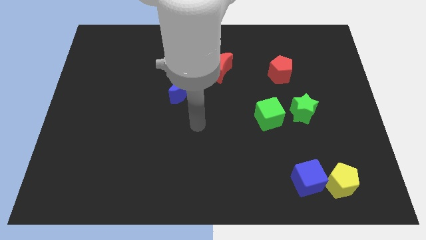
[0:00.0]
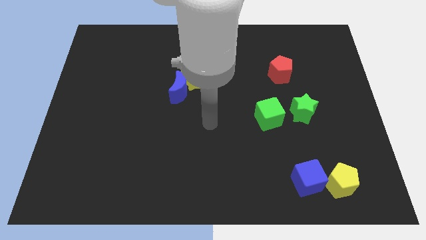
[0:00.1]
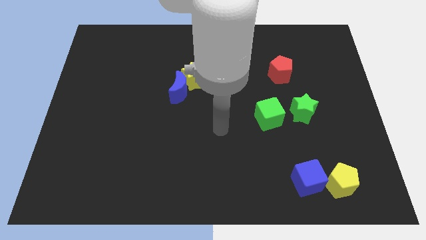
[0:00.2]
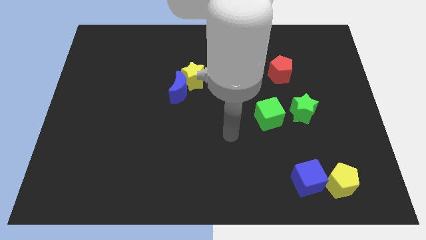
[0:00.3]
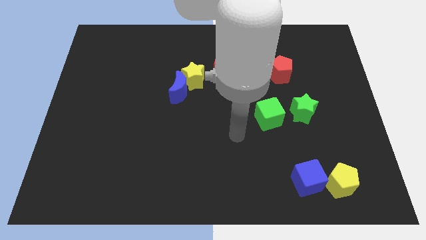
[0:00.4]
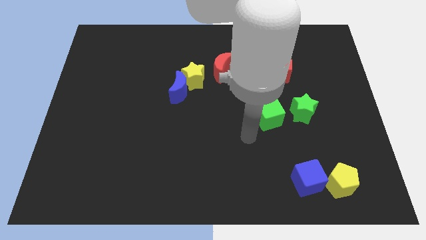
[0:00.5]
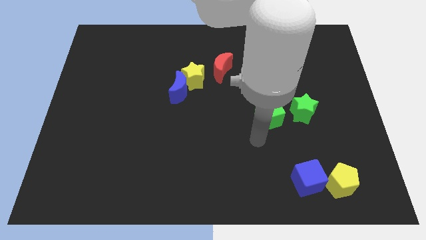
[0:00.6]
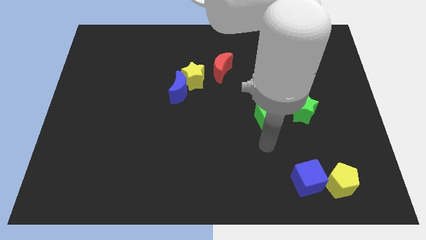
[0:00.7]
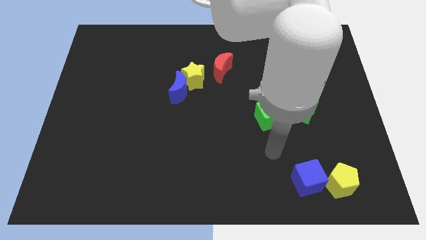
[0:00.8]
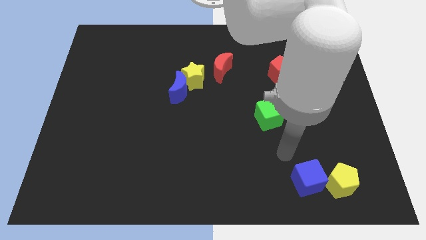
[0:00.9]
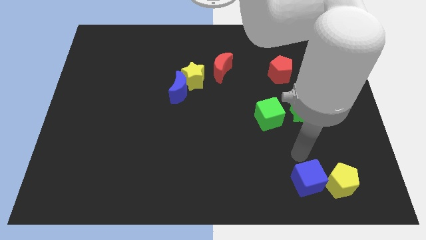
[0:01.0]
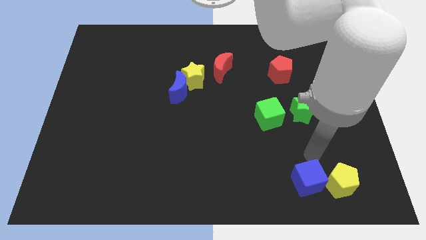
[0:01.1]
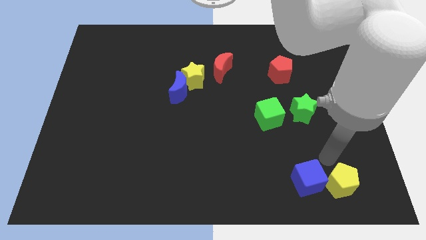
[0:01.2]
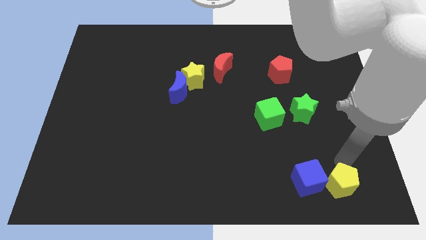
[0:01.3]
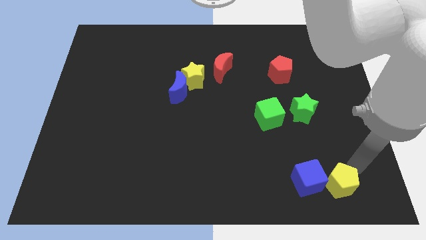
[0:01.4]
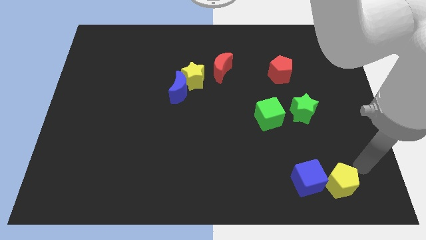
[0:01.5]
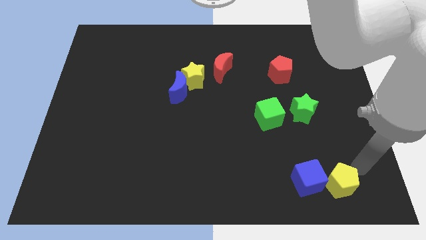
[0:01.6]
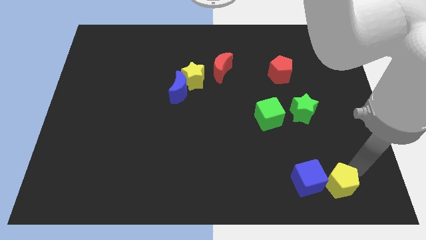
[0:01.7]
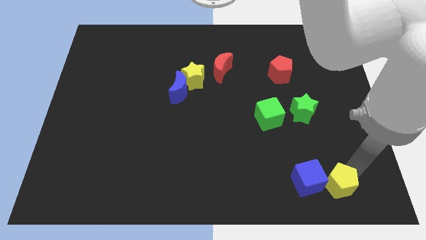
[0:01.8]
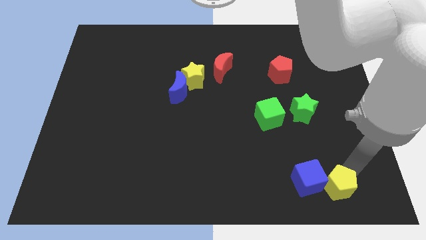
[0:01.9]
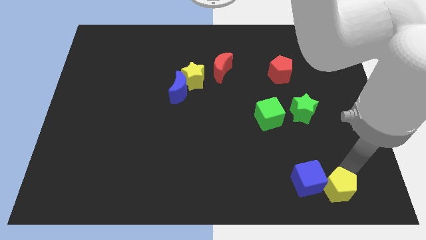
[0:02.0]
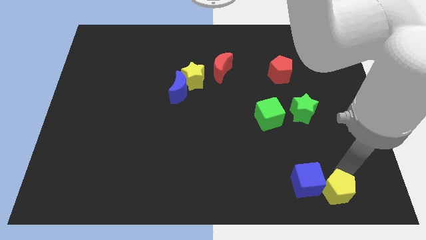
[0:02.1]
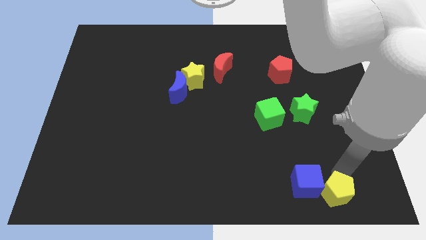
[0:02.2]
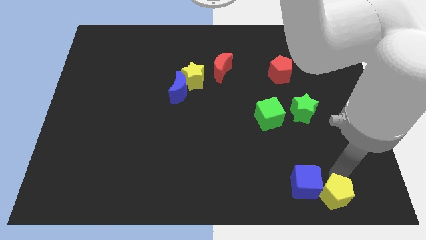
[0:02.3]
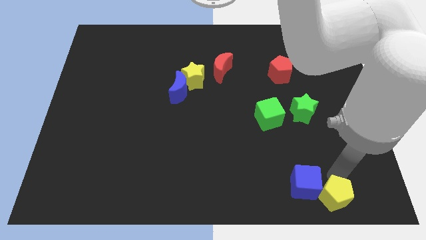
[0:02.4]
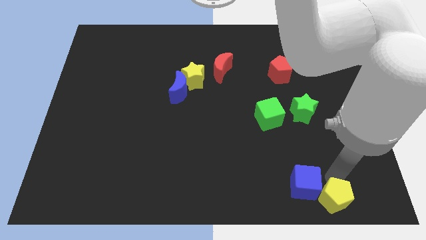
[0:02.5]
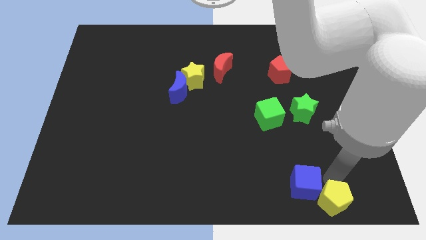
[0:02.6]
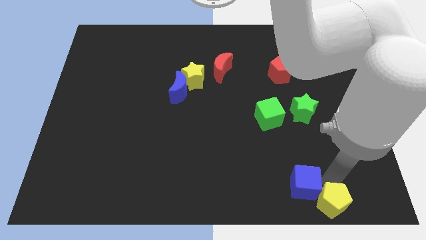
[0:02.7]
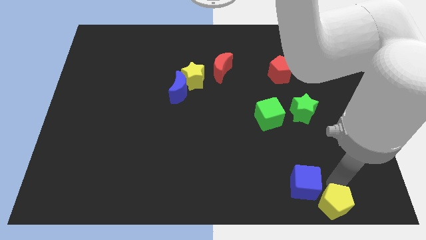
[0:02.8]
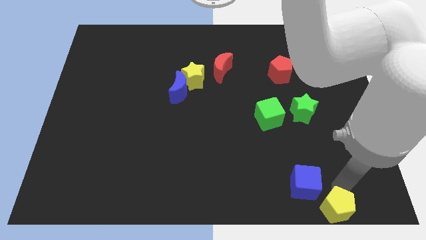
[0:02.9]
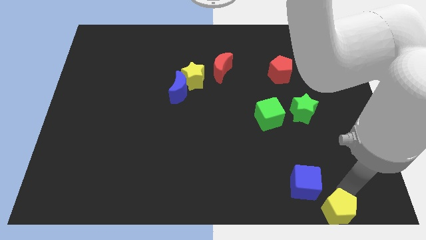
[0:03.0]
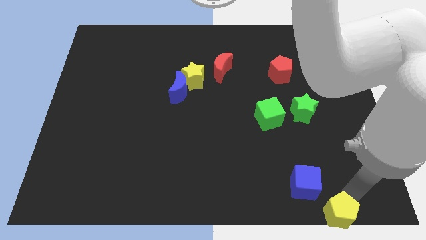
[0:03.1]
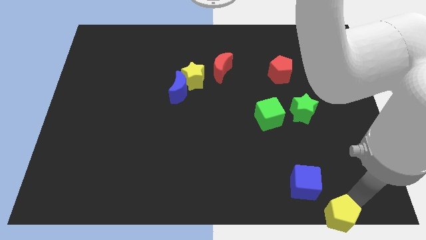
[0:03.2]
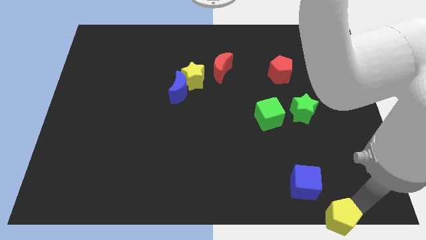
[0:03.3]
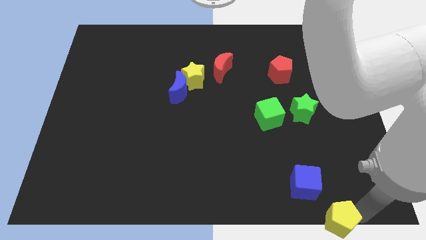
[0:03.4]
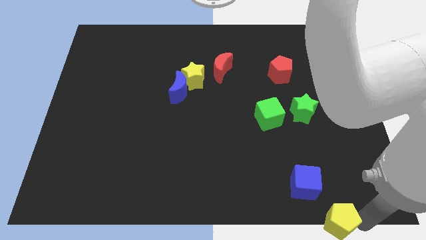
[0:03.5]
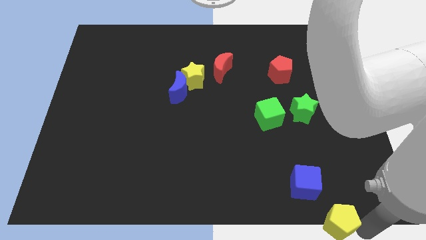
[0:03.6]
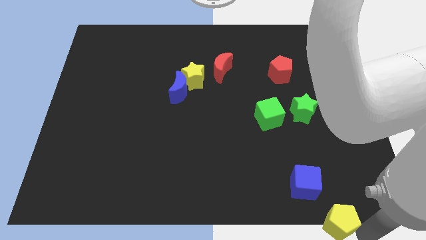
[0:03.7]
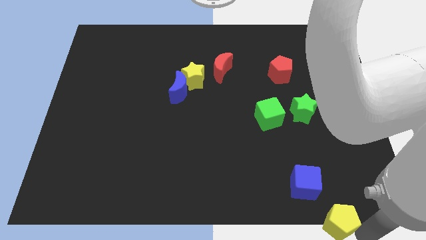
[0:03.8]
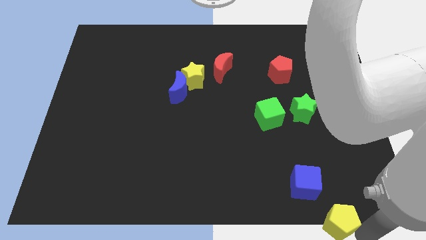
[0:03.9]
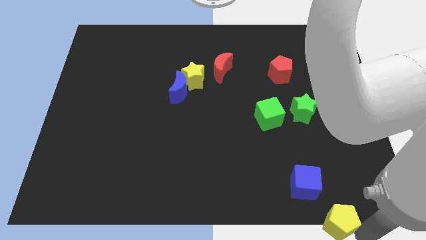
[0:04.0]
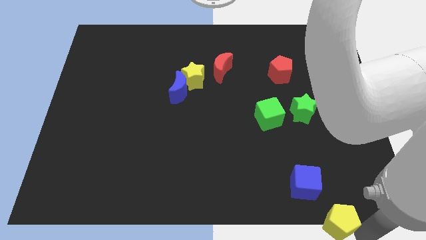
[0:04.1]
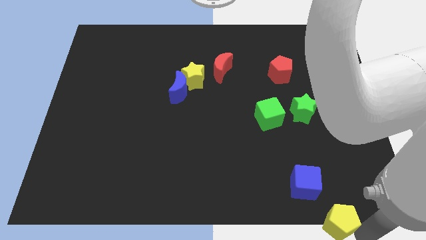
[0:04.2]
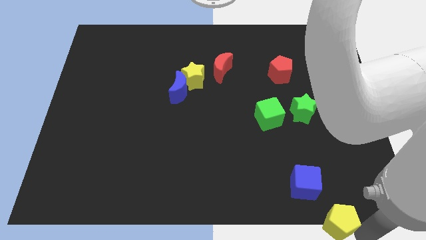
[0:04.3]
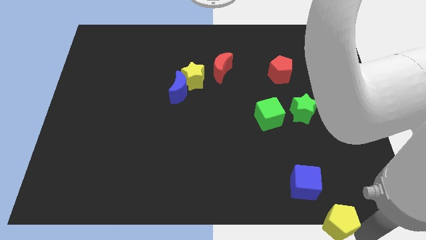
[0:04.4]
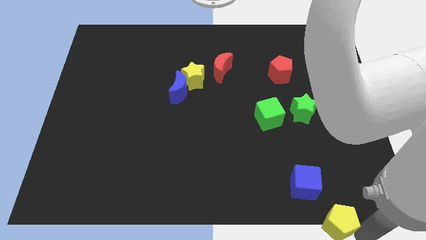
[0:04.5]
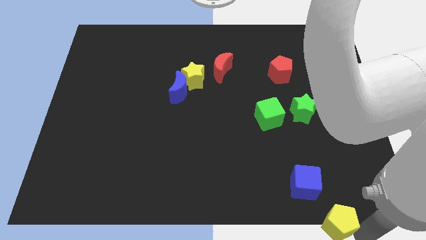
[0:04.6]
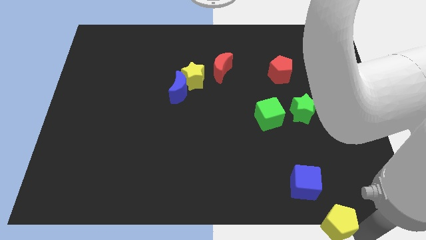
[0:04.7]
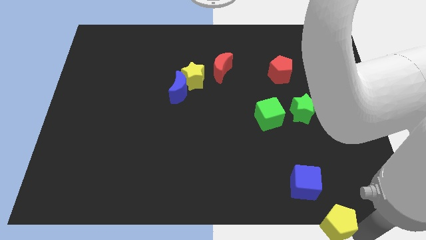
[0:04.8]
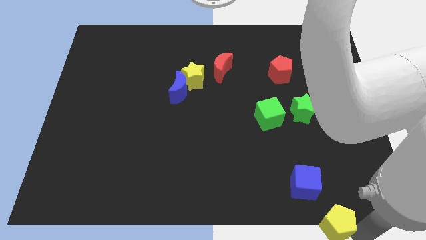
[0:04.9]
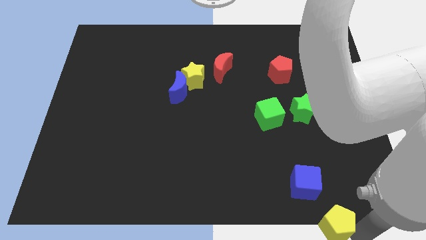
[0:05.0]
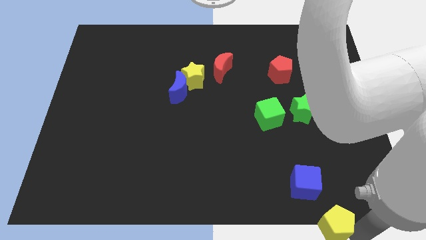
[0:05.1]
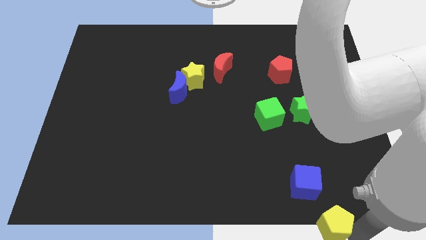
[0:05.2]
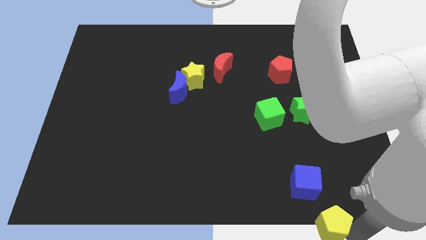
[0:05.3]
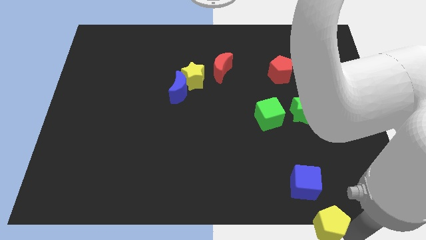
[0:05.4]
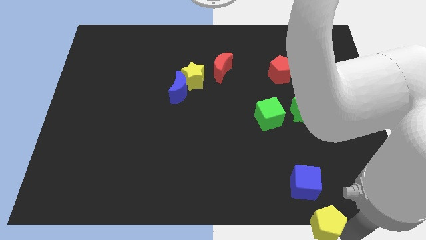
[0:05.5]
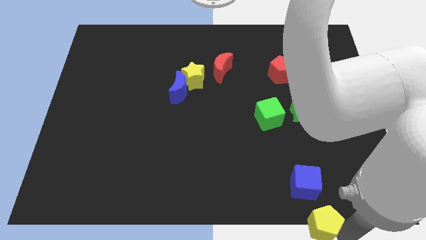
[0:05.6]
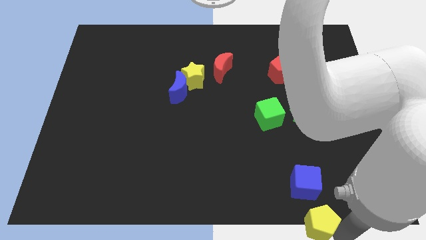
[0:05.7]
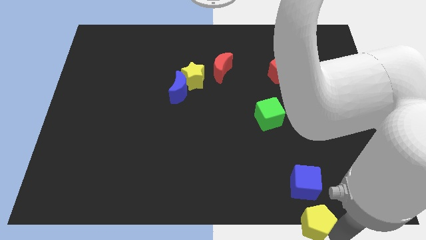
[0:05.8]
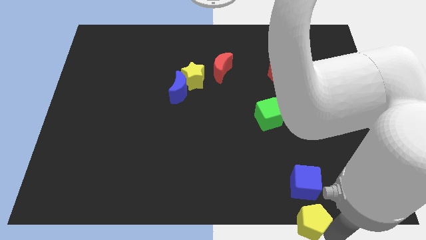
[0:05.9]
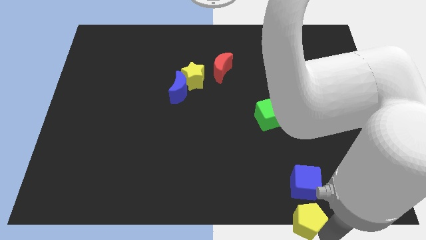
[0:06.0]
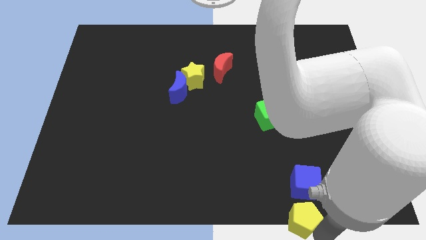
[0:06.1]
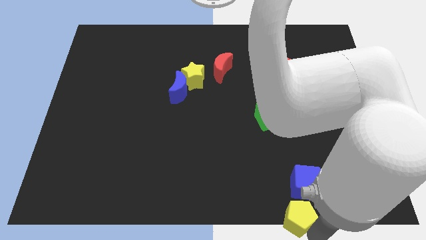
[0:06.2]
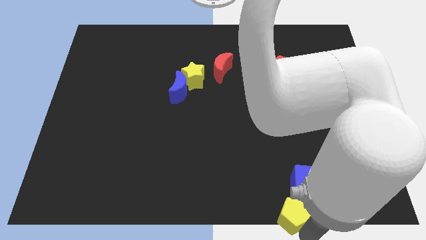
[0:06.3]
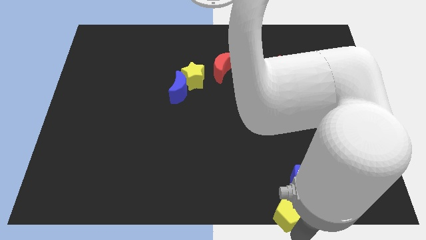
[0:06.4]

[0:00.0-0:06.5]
put the yellow pentagon to the bottom
